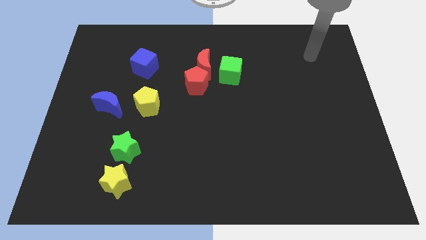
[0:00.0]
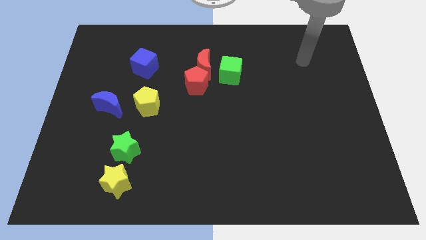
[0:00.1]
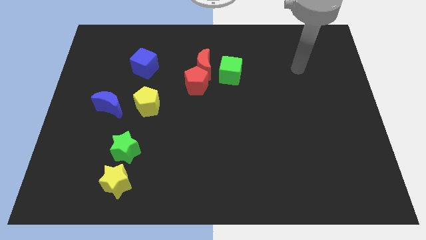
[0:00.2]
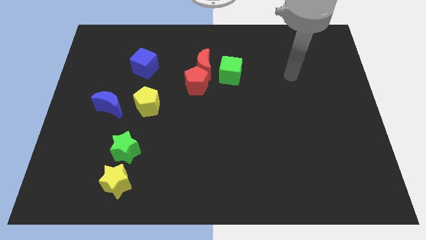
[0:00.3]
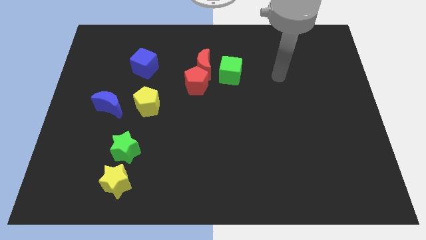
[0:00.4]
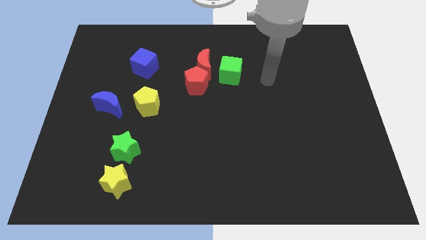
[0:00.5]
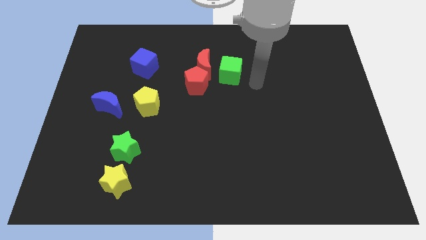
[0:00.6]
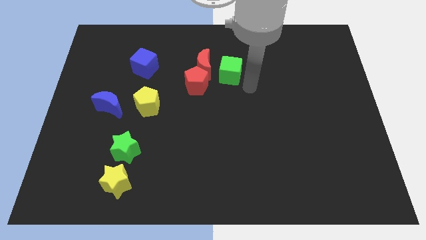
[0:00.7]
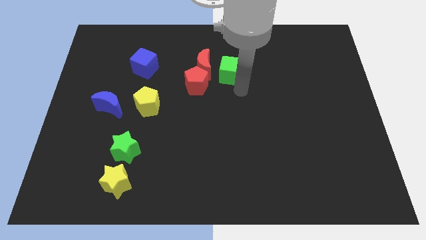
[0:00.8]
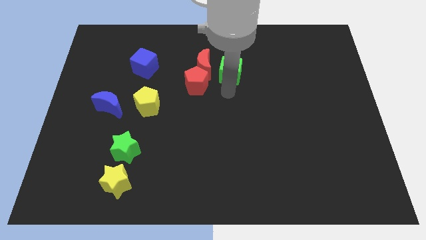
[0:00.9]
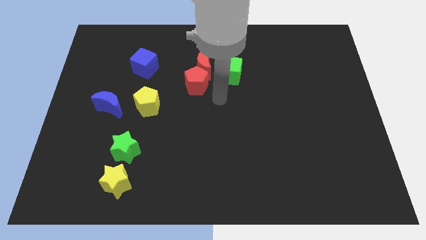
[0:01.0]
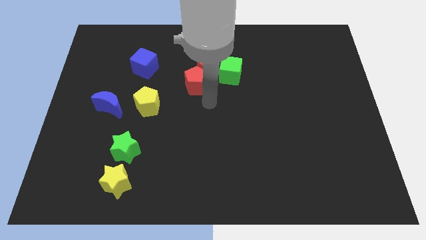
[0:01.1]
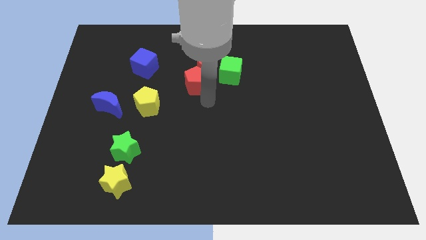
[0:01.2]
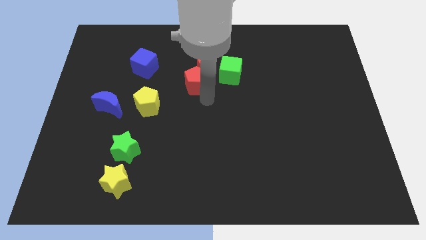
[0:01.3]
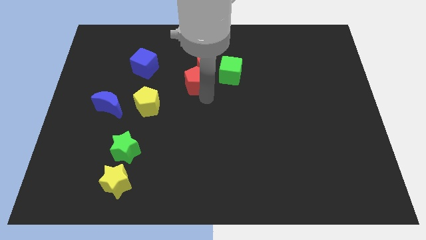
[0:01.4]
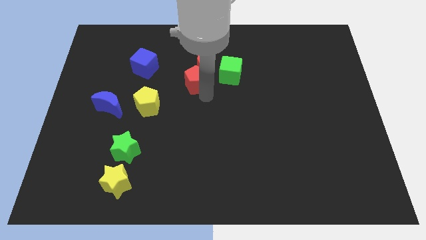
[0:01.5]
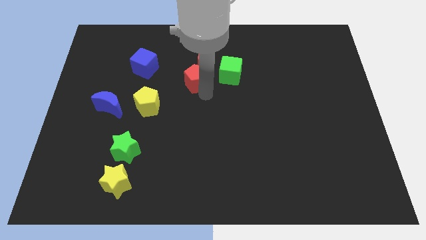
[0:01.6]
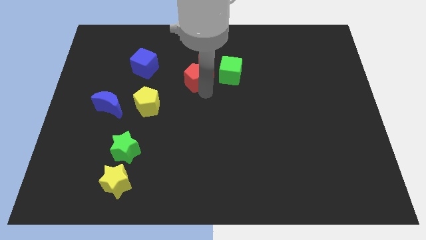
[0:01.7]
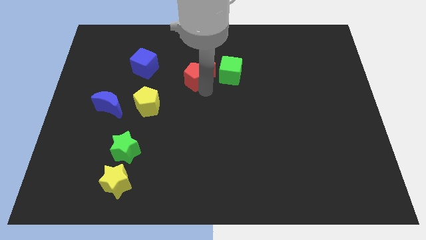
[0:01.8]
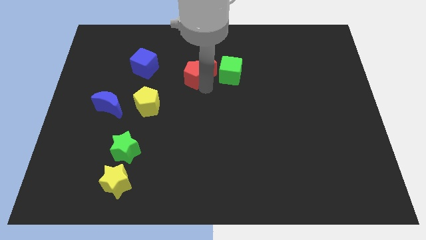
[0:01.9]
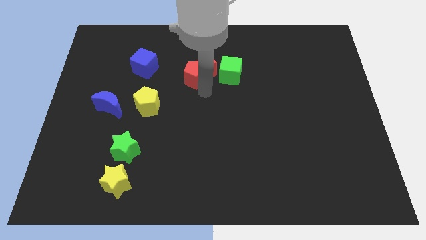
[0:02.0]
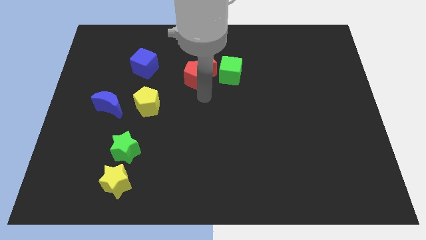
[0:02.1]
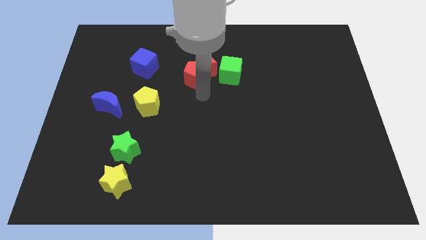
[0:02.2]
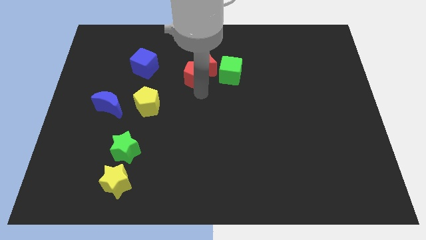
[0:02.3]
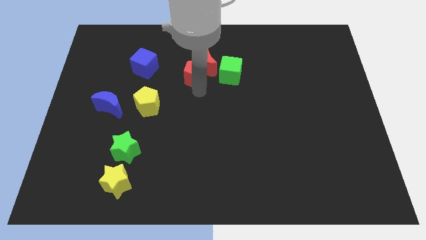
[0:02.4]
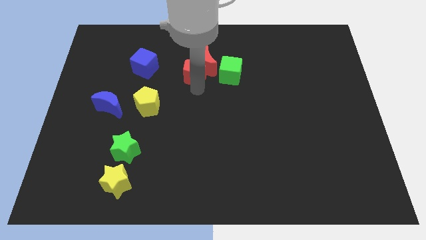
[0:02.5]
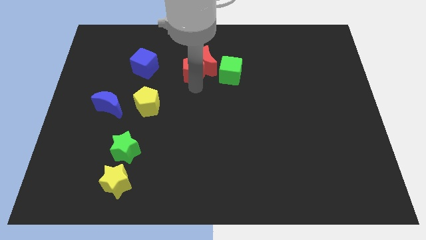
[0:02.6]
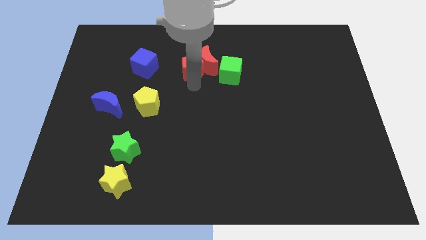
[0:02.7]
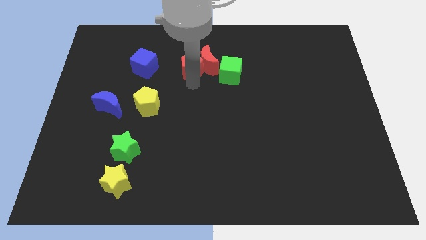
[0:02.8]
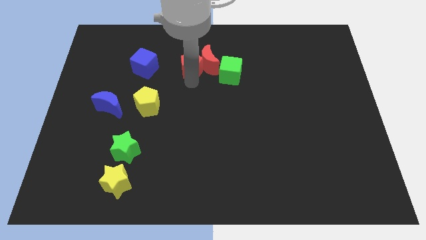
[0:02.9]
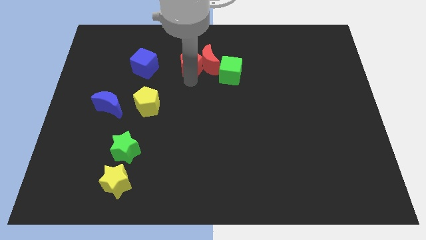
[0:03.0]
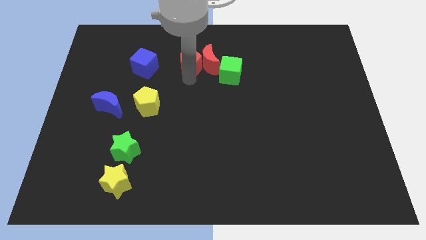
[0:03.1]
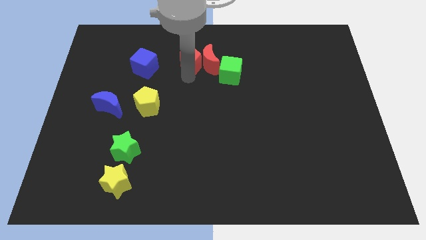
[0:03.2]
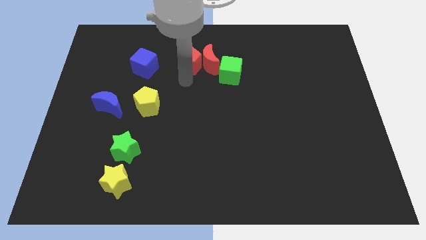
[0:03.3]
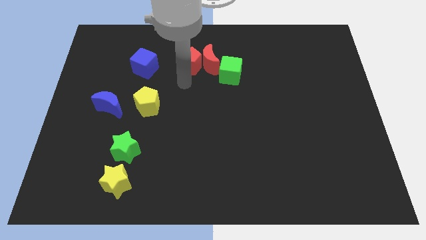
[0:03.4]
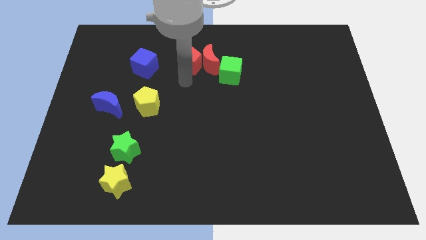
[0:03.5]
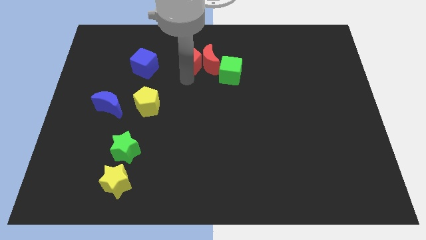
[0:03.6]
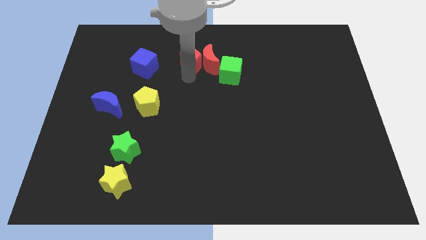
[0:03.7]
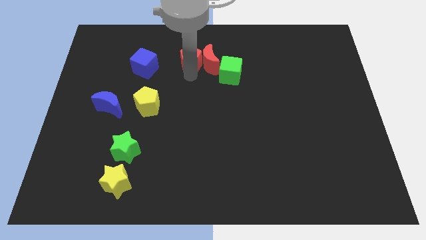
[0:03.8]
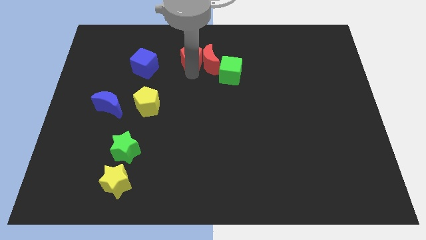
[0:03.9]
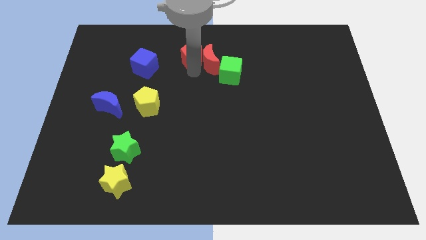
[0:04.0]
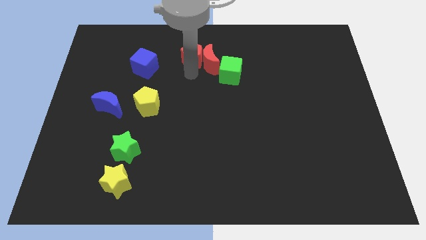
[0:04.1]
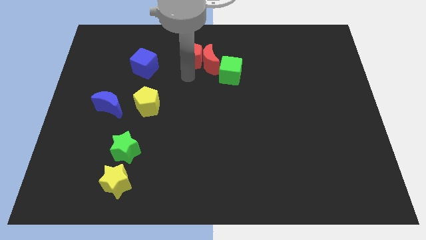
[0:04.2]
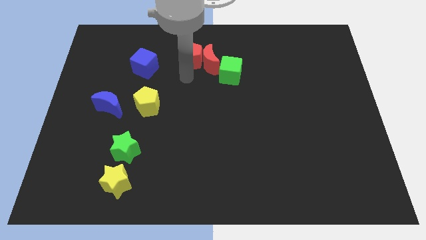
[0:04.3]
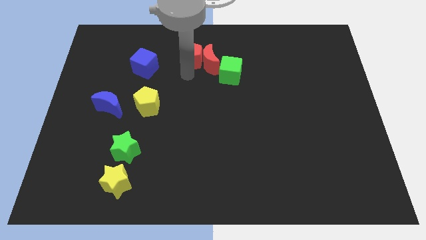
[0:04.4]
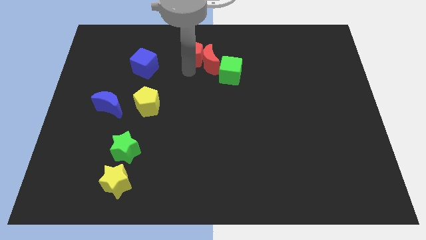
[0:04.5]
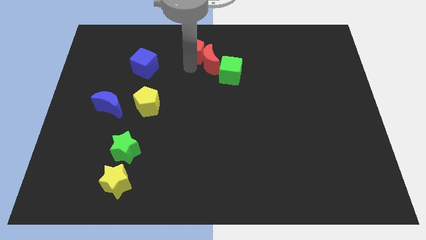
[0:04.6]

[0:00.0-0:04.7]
push the red pentagon to the top side

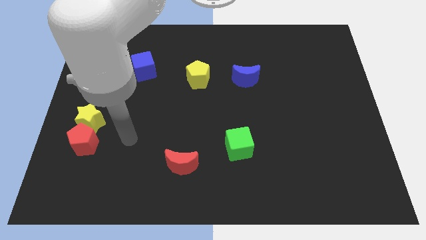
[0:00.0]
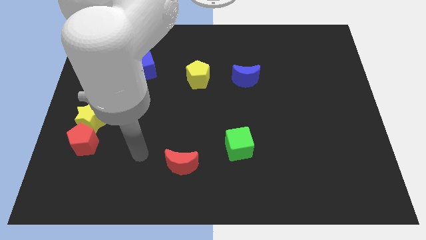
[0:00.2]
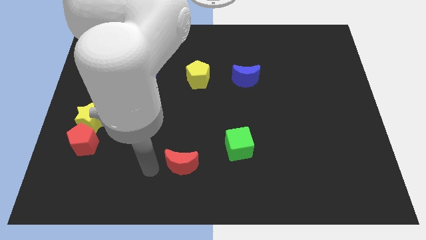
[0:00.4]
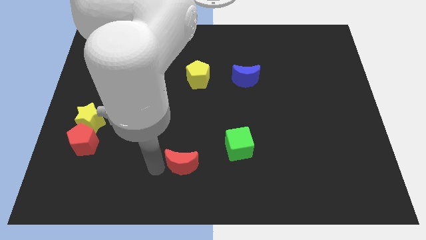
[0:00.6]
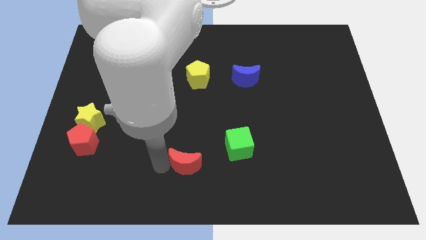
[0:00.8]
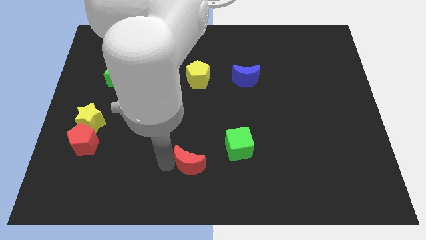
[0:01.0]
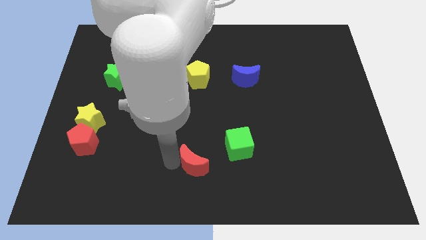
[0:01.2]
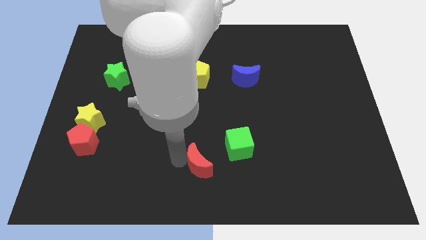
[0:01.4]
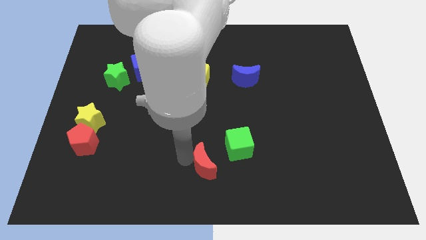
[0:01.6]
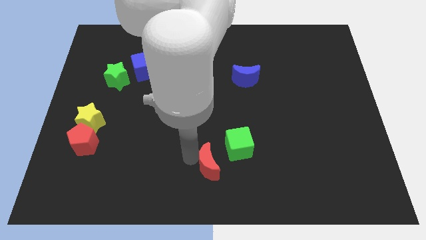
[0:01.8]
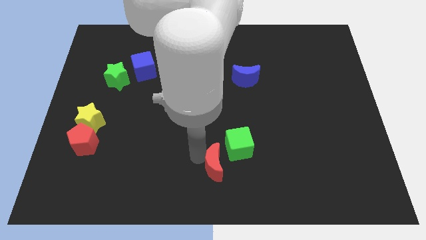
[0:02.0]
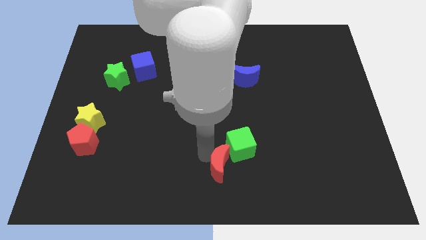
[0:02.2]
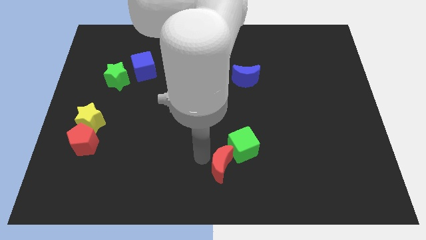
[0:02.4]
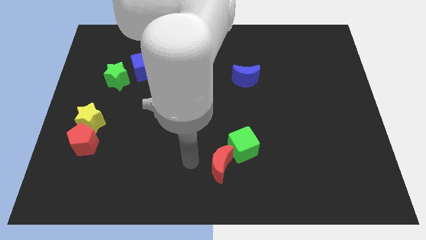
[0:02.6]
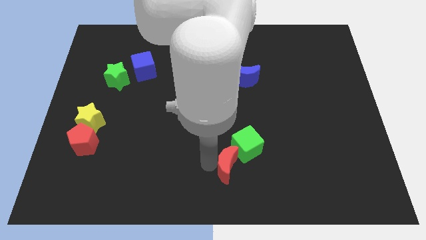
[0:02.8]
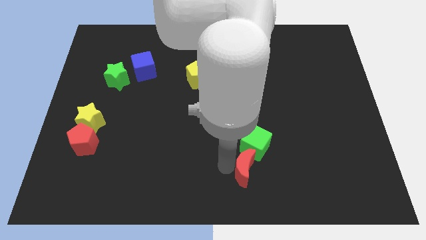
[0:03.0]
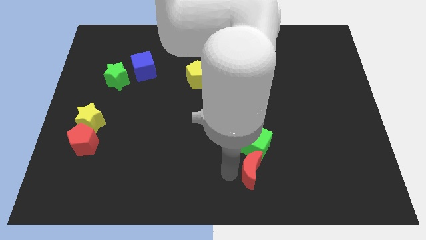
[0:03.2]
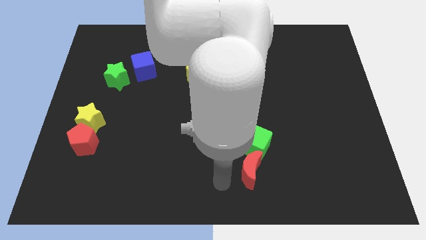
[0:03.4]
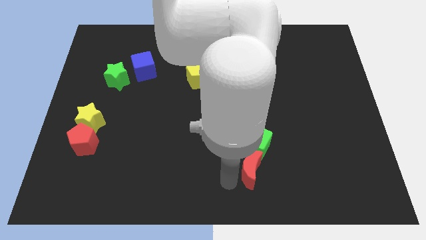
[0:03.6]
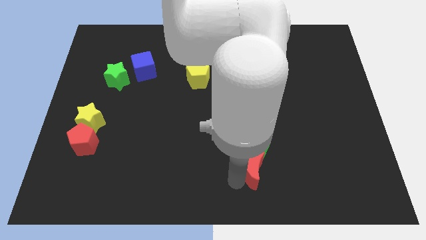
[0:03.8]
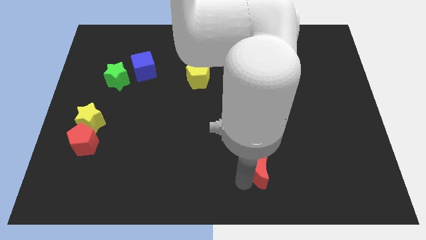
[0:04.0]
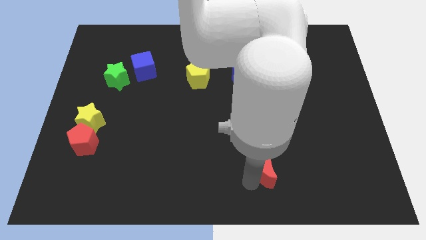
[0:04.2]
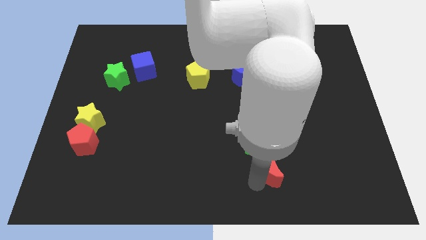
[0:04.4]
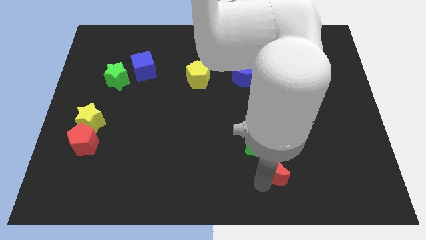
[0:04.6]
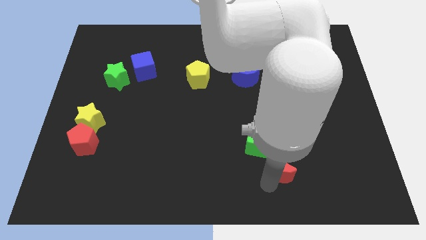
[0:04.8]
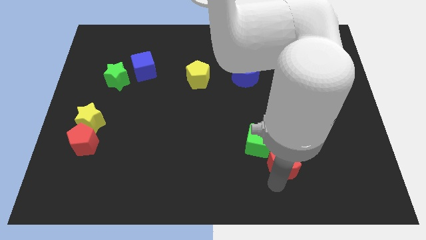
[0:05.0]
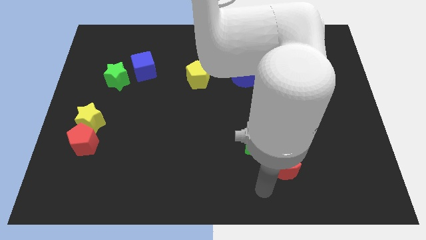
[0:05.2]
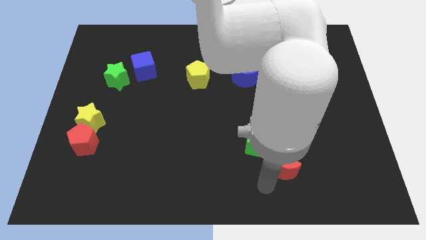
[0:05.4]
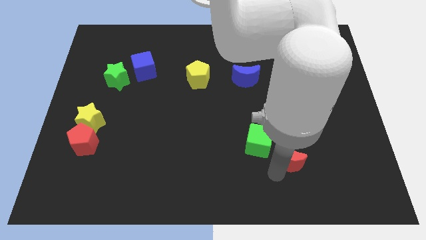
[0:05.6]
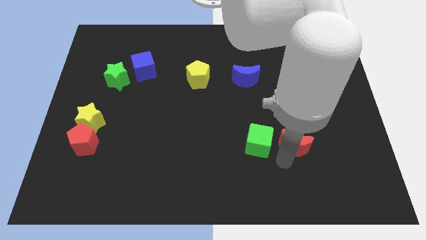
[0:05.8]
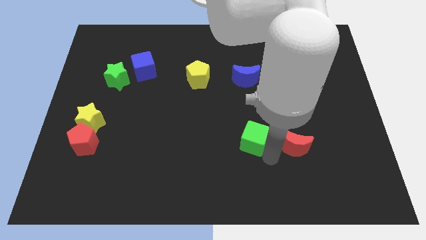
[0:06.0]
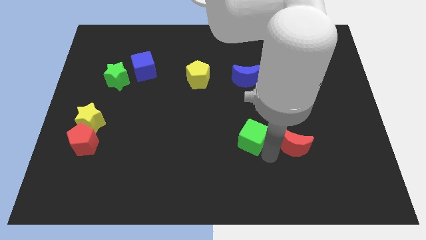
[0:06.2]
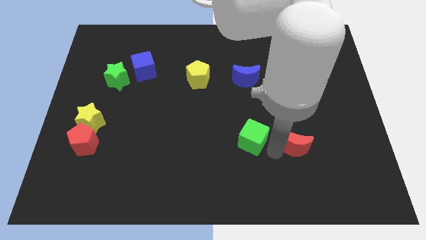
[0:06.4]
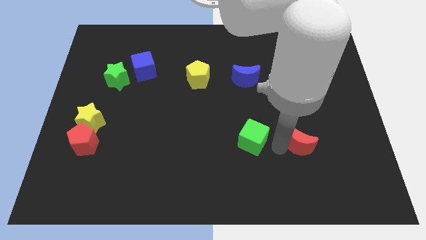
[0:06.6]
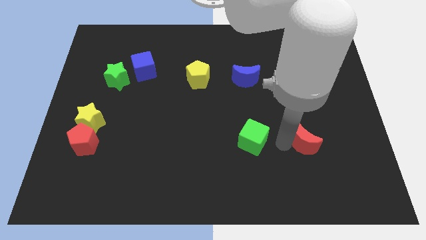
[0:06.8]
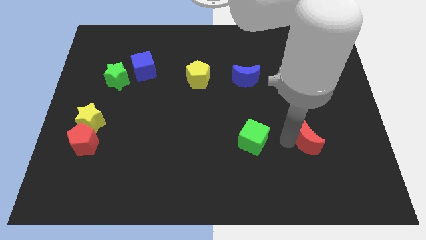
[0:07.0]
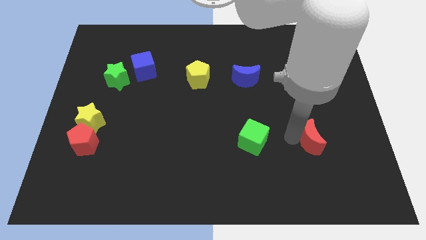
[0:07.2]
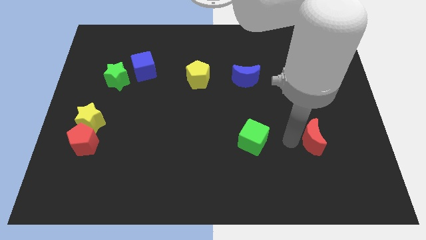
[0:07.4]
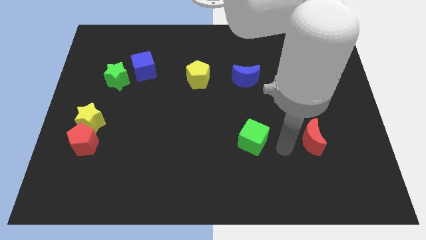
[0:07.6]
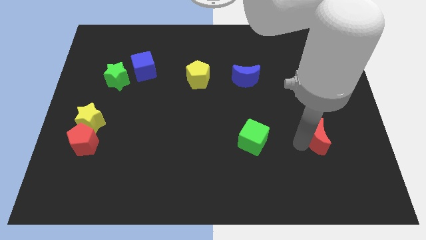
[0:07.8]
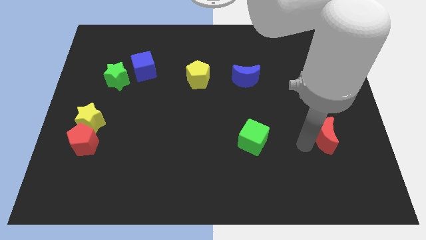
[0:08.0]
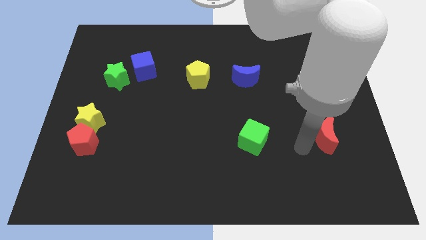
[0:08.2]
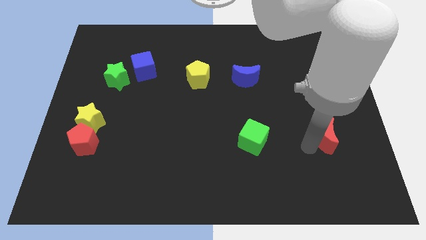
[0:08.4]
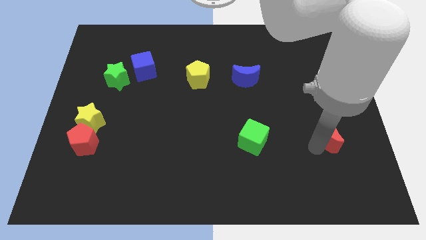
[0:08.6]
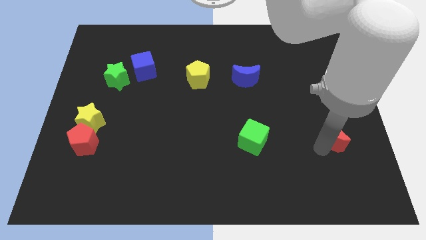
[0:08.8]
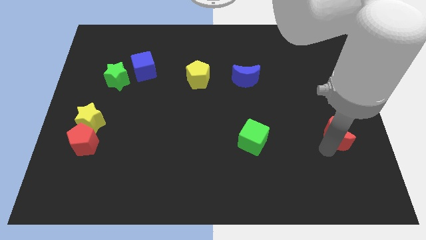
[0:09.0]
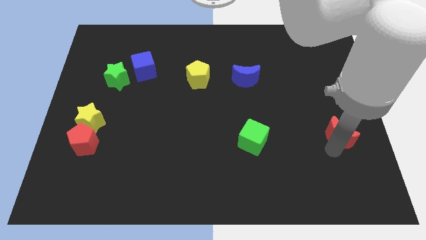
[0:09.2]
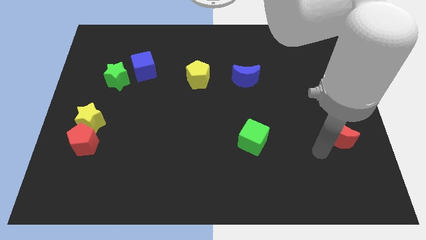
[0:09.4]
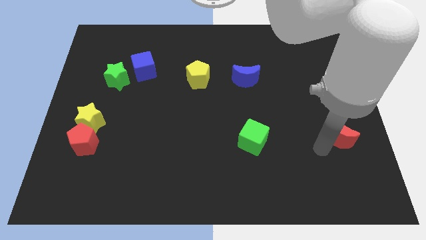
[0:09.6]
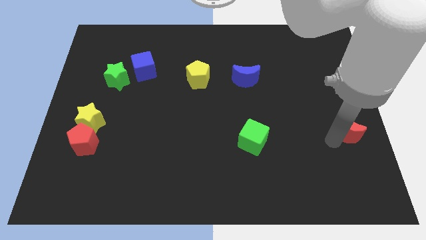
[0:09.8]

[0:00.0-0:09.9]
put the red moon to the right side of the board
